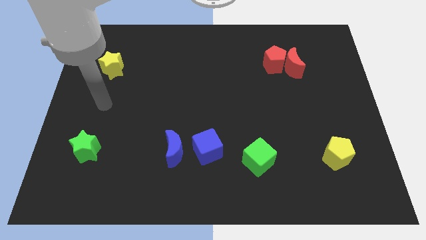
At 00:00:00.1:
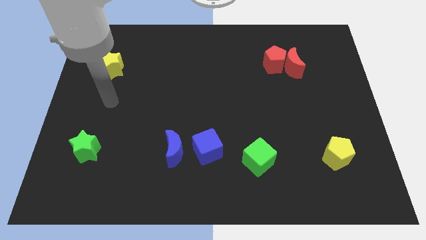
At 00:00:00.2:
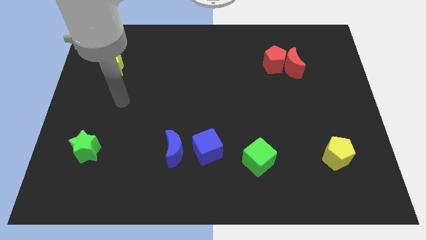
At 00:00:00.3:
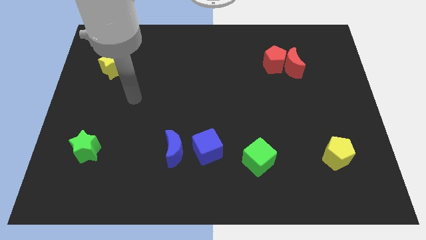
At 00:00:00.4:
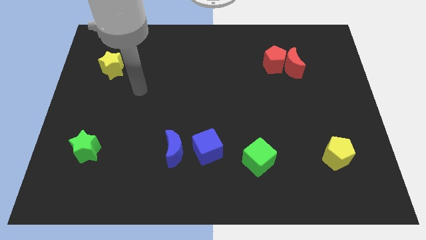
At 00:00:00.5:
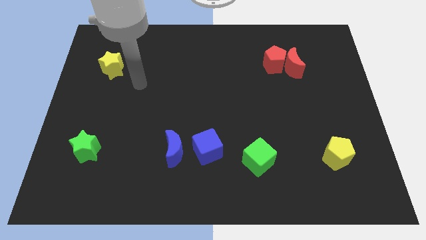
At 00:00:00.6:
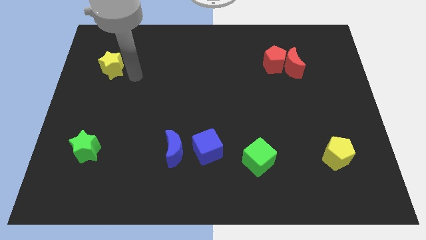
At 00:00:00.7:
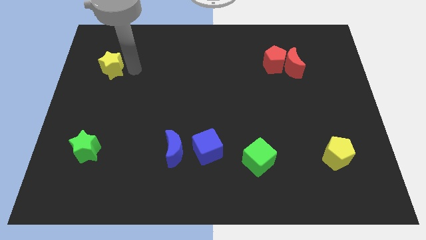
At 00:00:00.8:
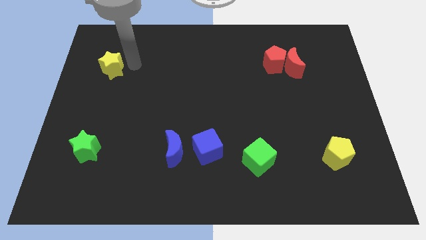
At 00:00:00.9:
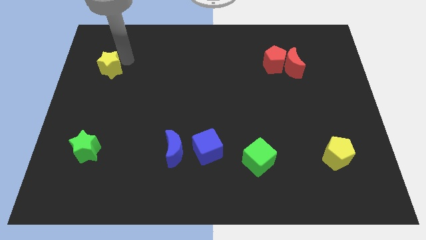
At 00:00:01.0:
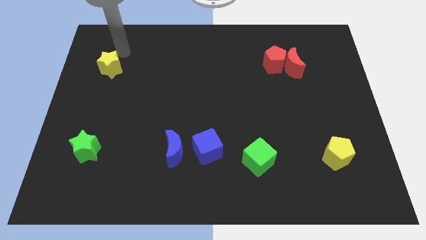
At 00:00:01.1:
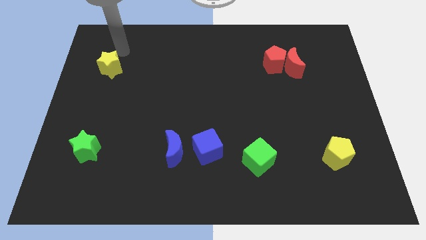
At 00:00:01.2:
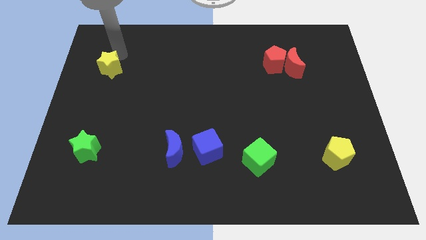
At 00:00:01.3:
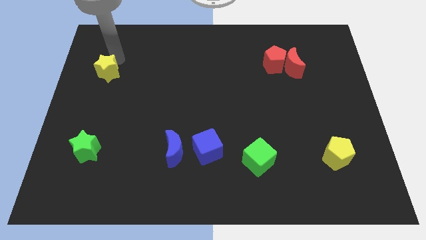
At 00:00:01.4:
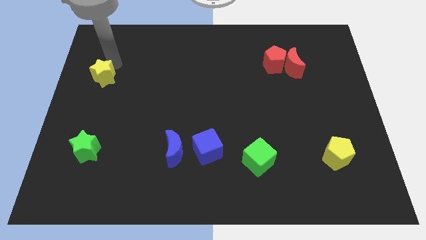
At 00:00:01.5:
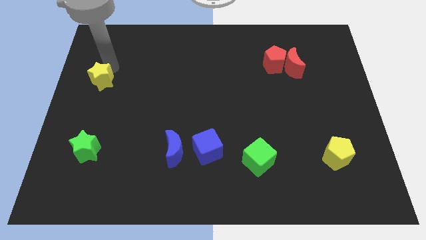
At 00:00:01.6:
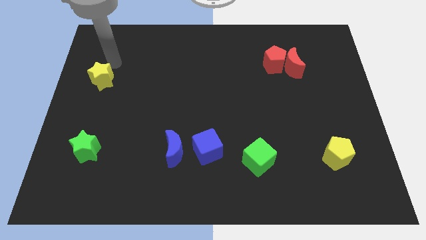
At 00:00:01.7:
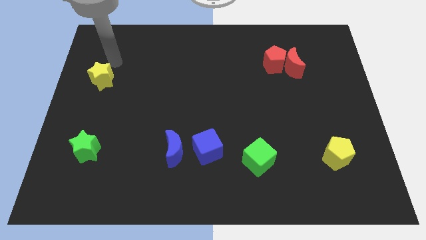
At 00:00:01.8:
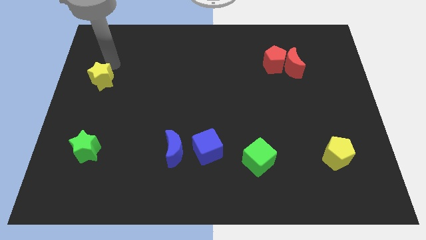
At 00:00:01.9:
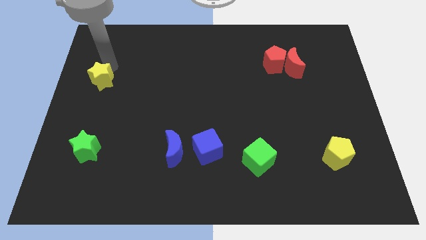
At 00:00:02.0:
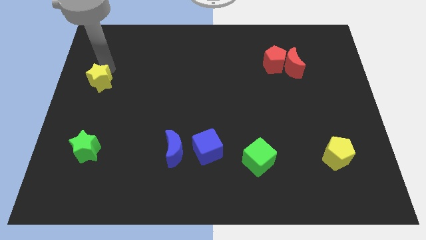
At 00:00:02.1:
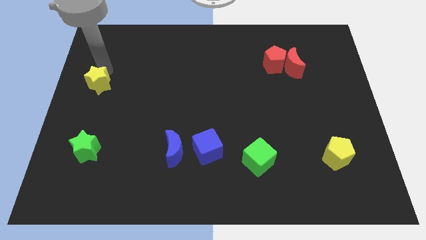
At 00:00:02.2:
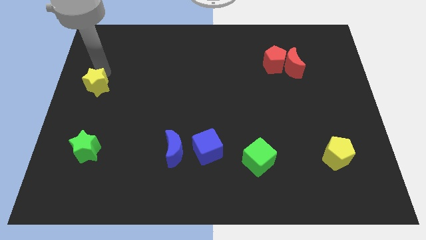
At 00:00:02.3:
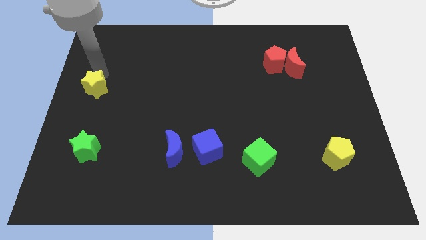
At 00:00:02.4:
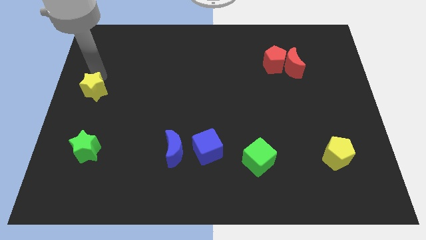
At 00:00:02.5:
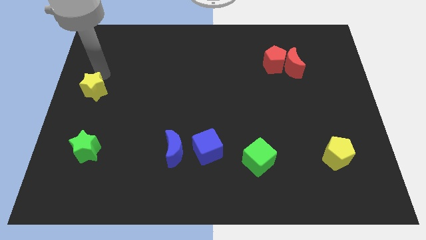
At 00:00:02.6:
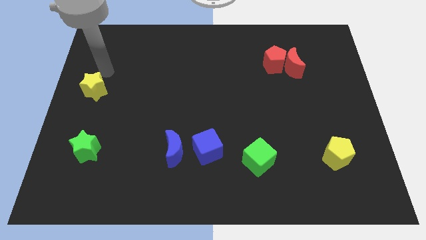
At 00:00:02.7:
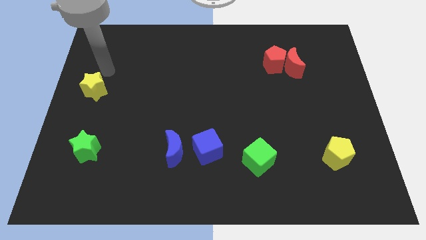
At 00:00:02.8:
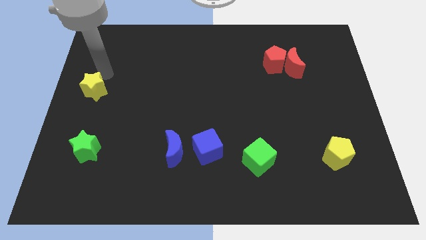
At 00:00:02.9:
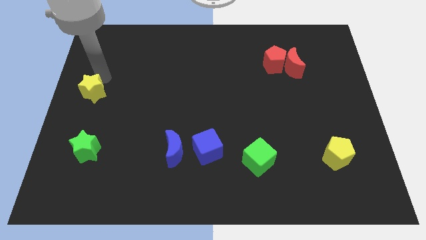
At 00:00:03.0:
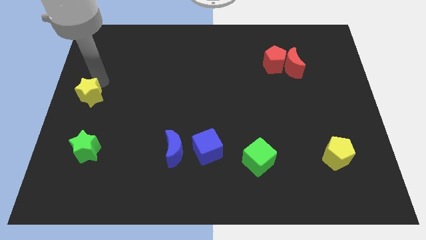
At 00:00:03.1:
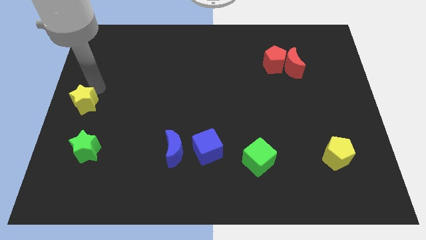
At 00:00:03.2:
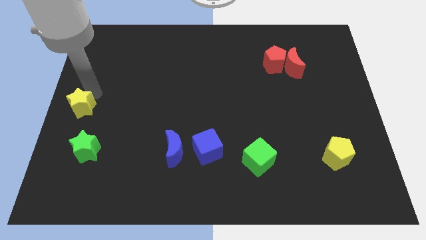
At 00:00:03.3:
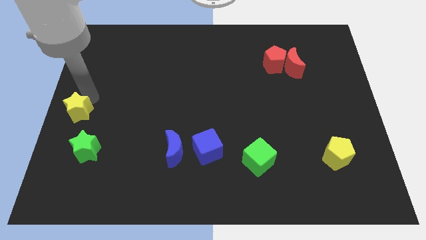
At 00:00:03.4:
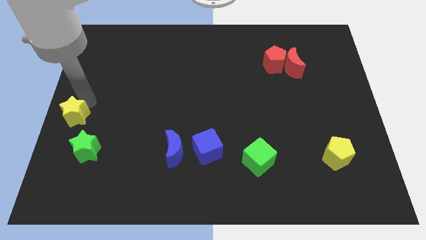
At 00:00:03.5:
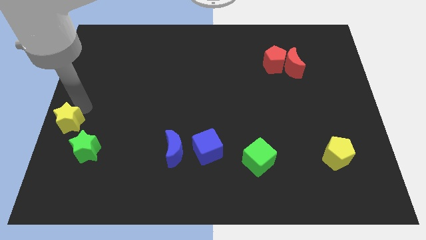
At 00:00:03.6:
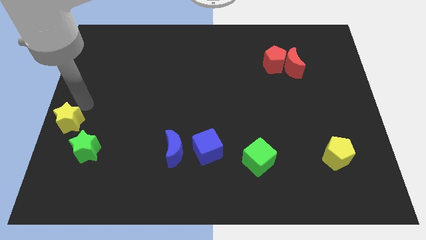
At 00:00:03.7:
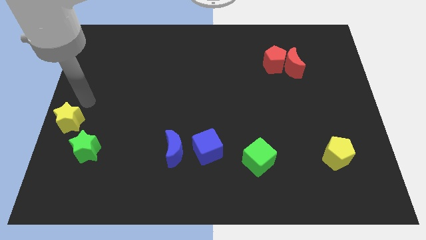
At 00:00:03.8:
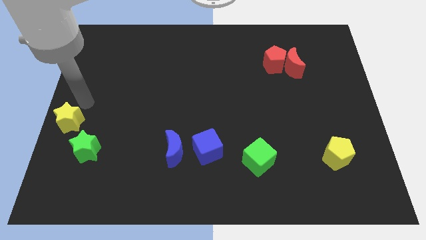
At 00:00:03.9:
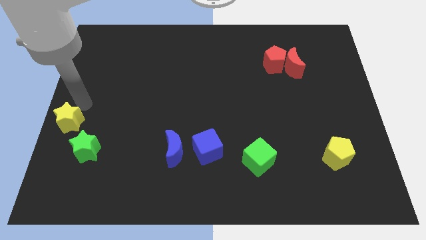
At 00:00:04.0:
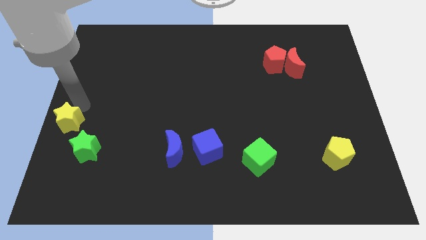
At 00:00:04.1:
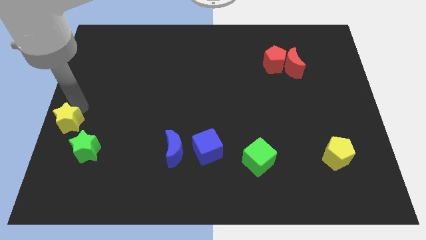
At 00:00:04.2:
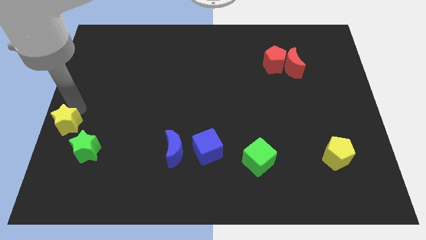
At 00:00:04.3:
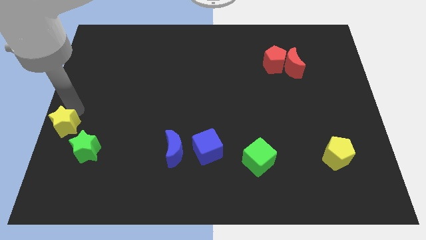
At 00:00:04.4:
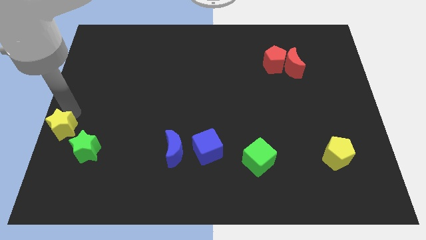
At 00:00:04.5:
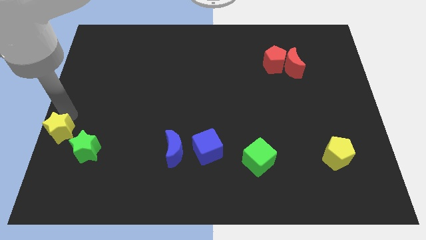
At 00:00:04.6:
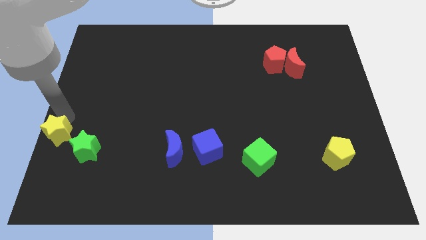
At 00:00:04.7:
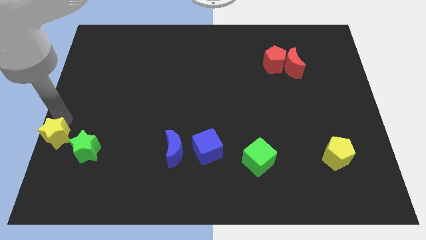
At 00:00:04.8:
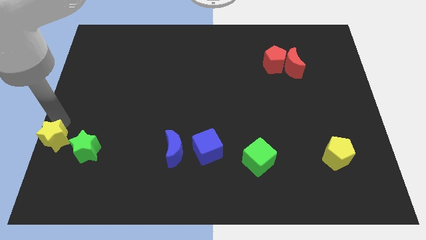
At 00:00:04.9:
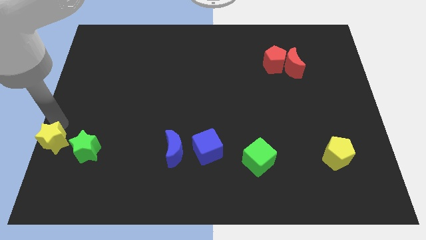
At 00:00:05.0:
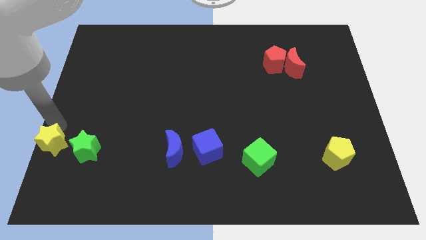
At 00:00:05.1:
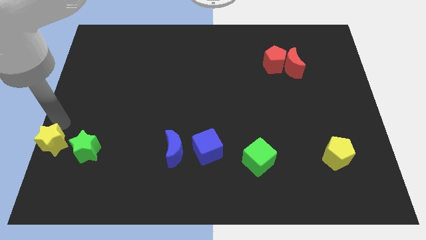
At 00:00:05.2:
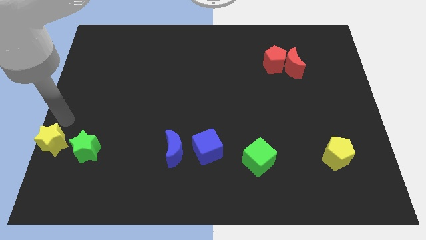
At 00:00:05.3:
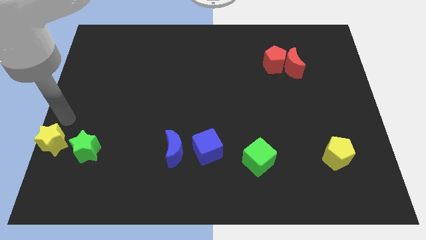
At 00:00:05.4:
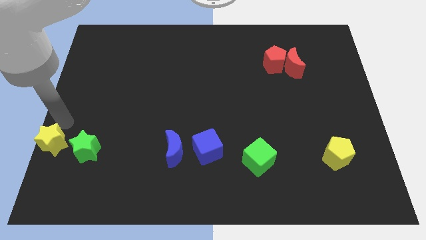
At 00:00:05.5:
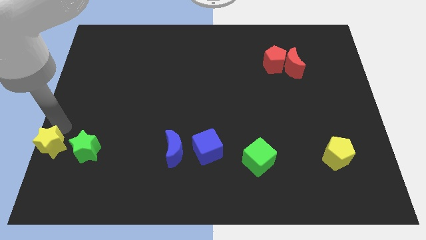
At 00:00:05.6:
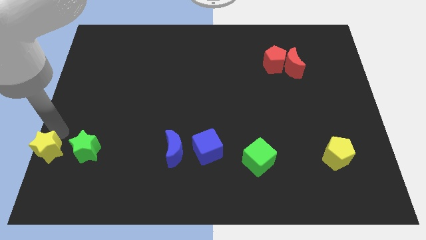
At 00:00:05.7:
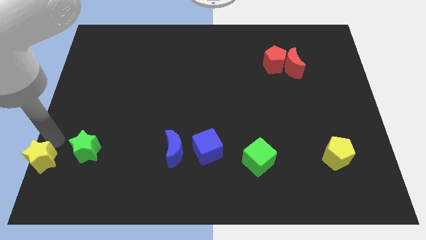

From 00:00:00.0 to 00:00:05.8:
put the yellow star to the bottom left
